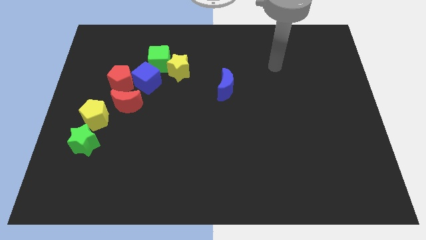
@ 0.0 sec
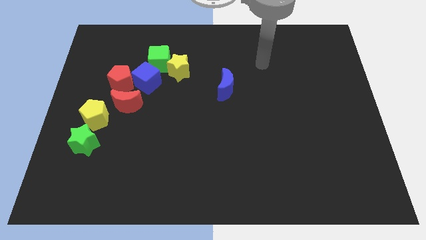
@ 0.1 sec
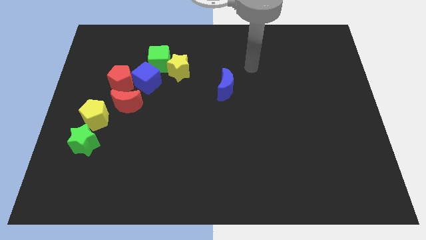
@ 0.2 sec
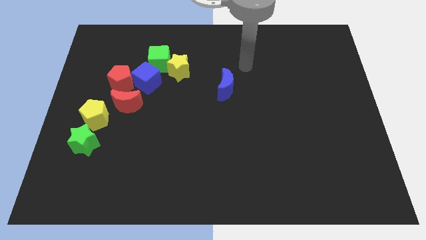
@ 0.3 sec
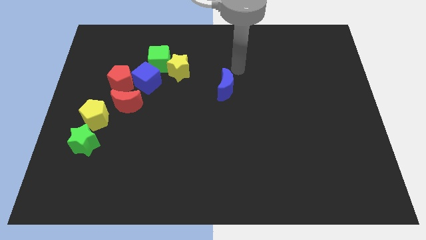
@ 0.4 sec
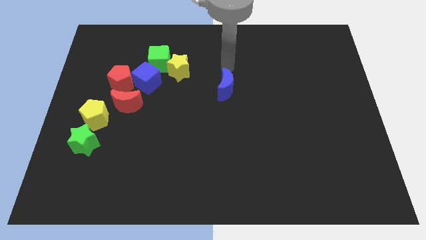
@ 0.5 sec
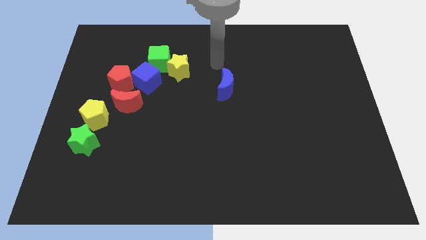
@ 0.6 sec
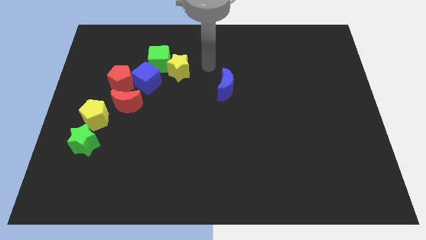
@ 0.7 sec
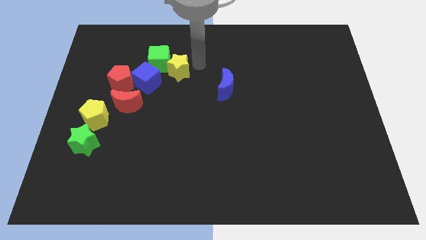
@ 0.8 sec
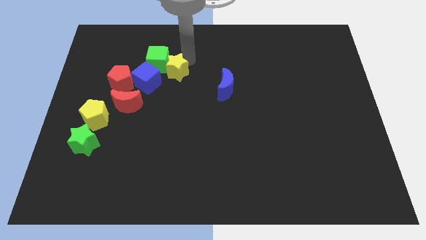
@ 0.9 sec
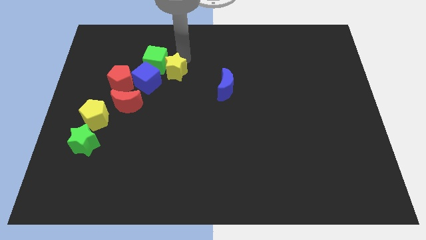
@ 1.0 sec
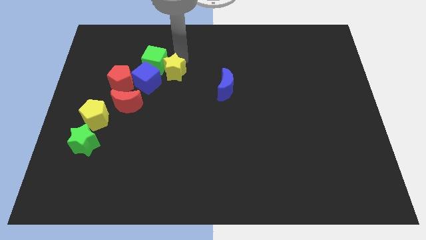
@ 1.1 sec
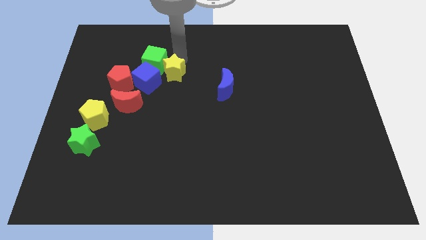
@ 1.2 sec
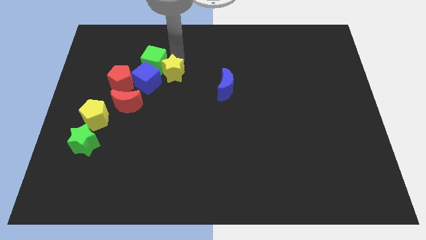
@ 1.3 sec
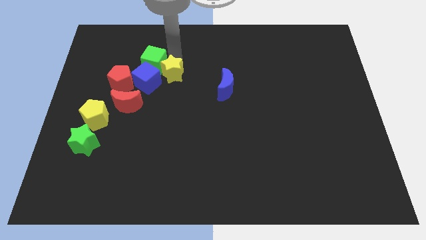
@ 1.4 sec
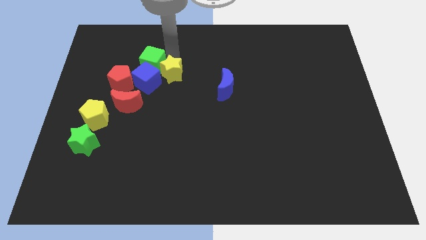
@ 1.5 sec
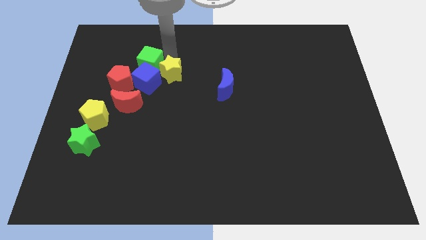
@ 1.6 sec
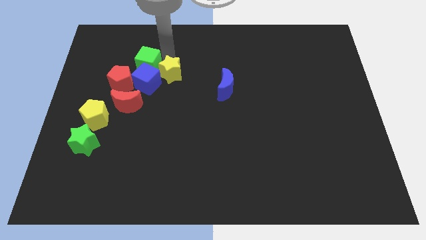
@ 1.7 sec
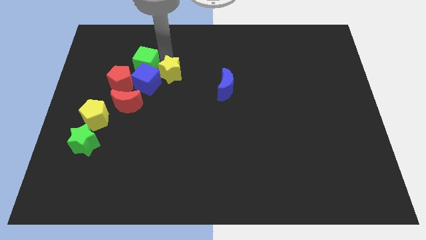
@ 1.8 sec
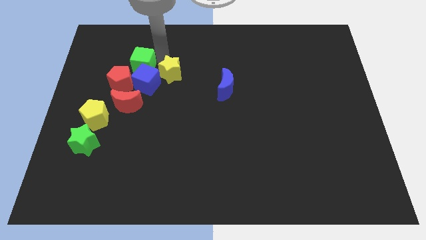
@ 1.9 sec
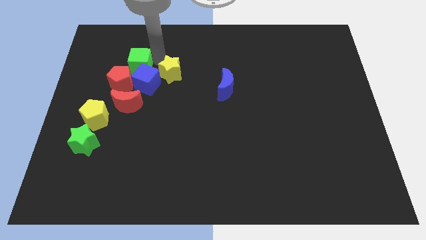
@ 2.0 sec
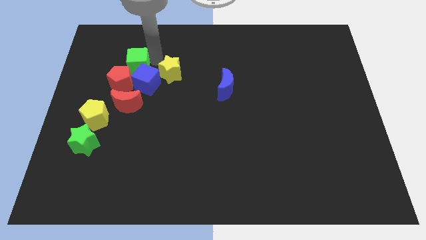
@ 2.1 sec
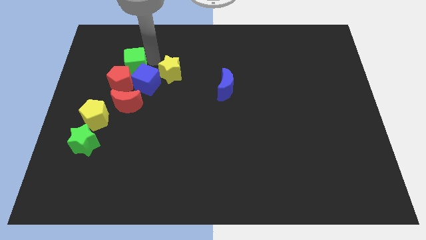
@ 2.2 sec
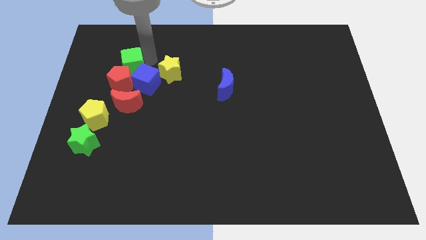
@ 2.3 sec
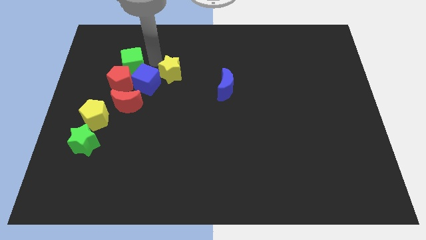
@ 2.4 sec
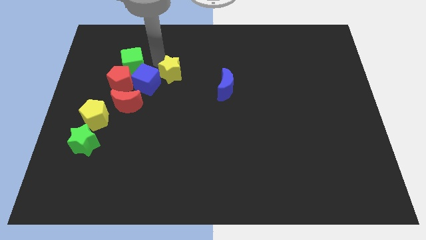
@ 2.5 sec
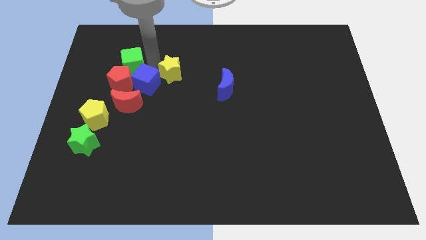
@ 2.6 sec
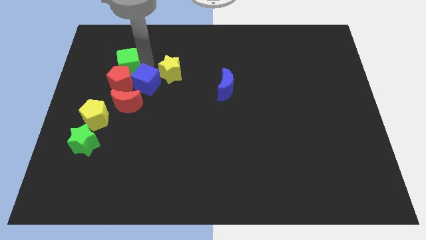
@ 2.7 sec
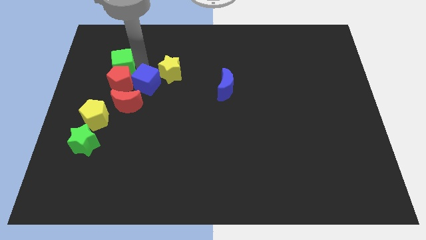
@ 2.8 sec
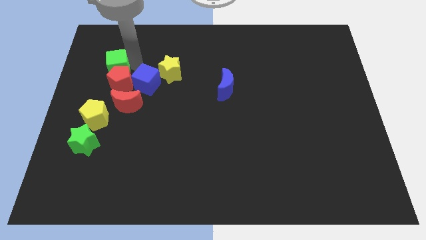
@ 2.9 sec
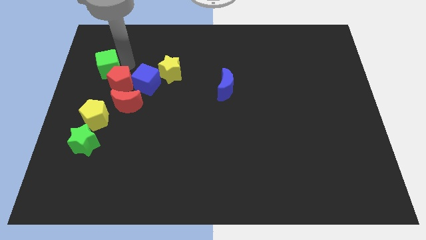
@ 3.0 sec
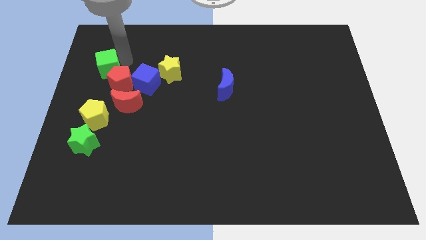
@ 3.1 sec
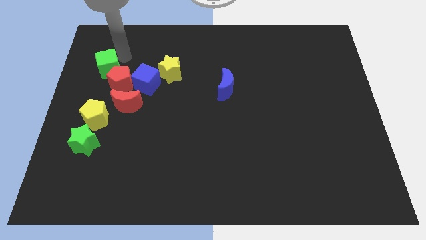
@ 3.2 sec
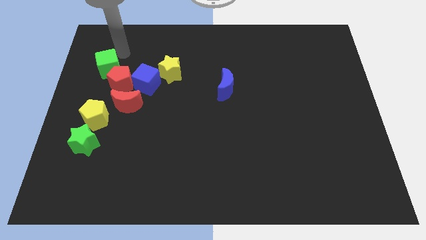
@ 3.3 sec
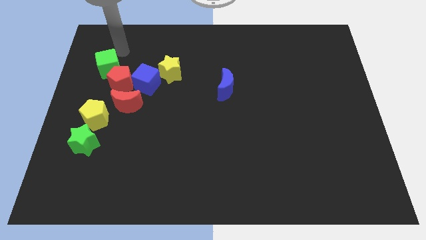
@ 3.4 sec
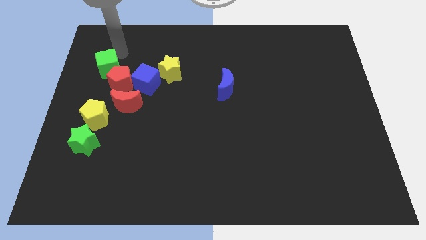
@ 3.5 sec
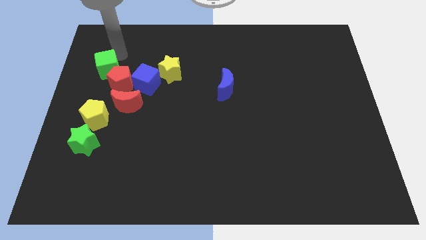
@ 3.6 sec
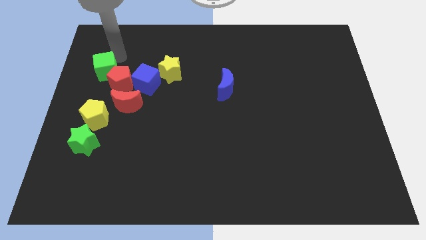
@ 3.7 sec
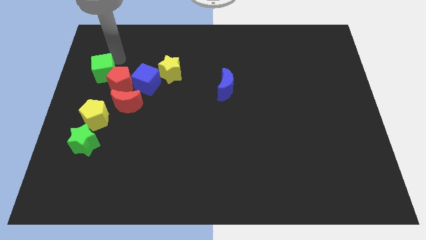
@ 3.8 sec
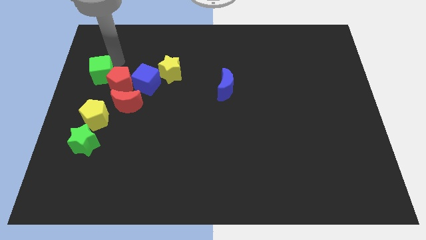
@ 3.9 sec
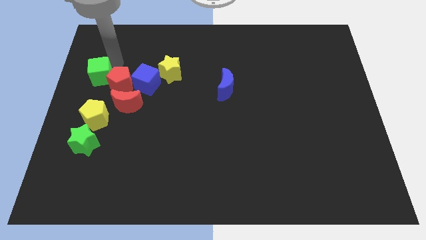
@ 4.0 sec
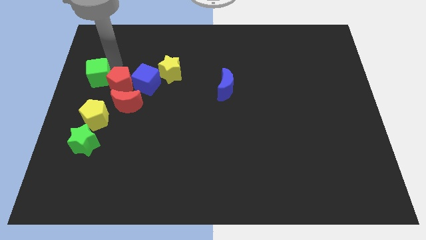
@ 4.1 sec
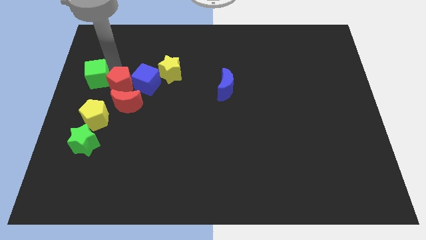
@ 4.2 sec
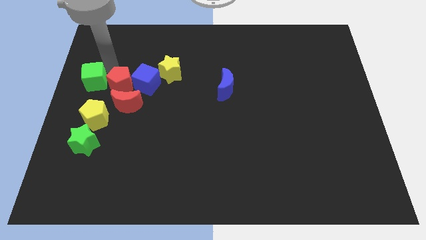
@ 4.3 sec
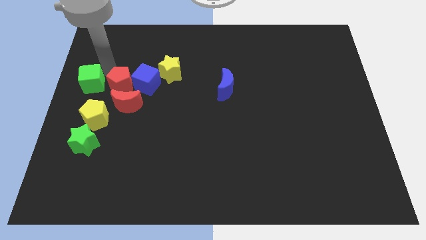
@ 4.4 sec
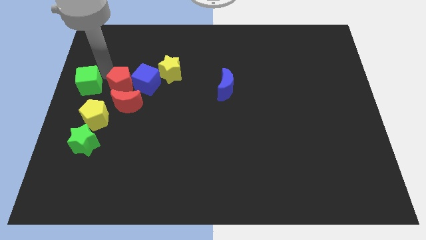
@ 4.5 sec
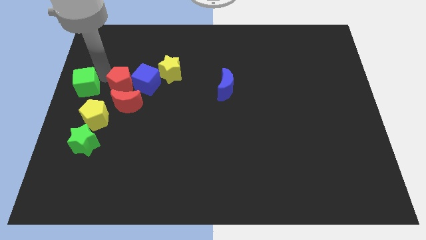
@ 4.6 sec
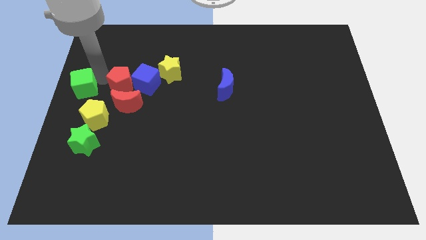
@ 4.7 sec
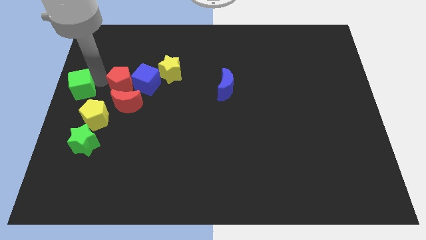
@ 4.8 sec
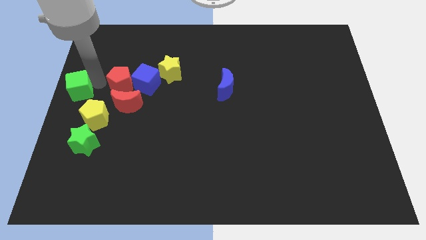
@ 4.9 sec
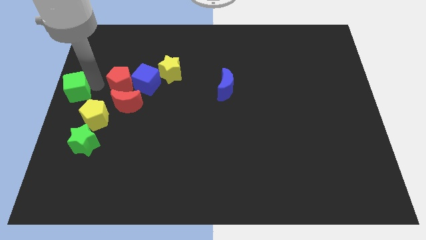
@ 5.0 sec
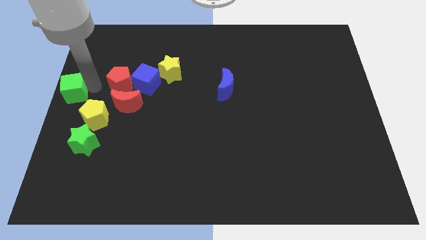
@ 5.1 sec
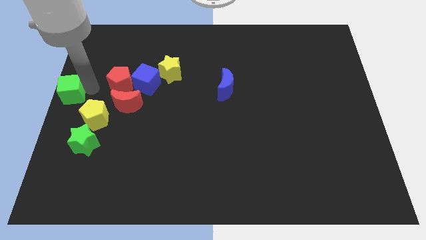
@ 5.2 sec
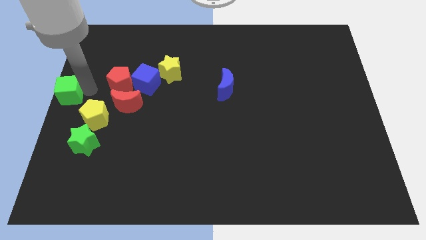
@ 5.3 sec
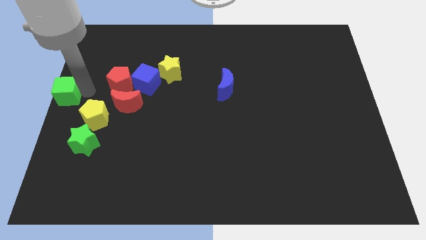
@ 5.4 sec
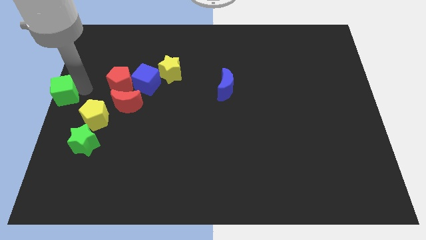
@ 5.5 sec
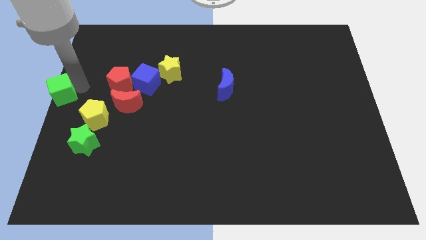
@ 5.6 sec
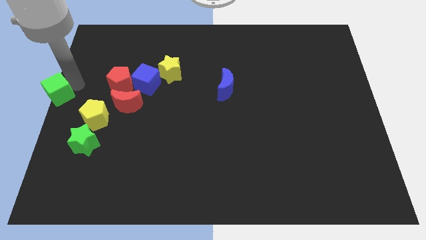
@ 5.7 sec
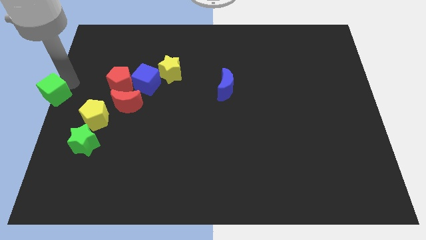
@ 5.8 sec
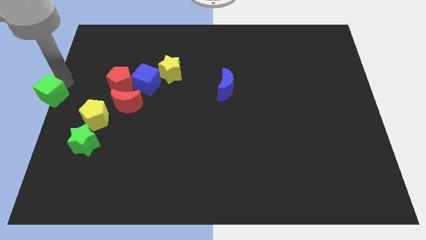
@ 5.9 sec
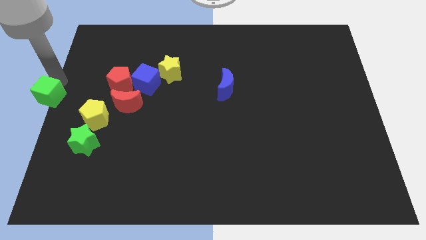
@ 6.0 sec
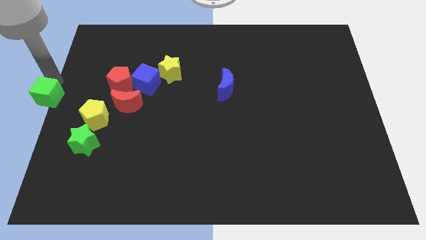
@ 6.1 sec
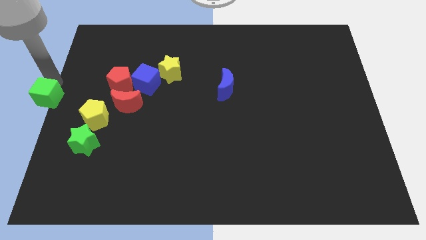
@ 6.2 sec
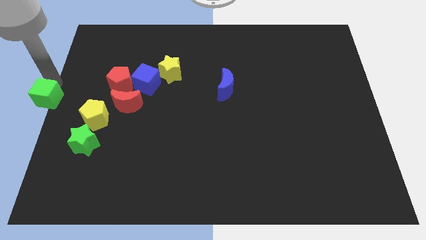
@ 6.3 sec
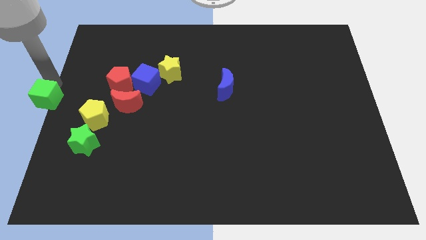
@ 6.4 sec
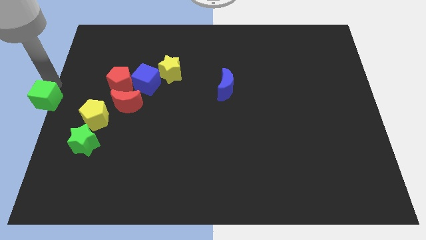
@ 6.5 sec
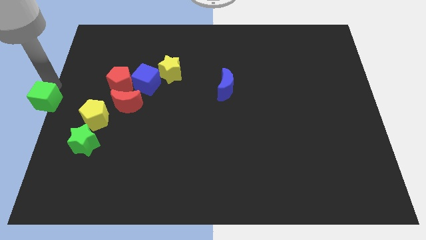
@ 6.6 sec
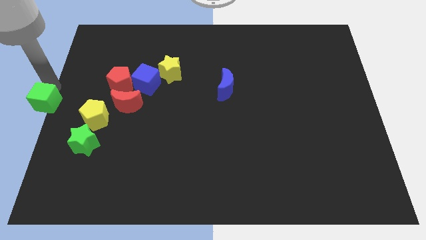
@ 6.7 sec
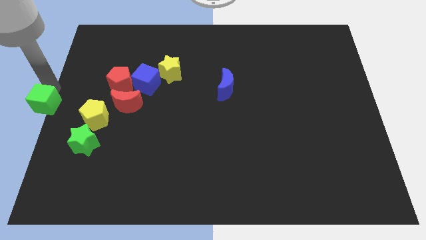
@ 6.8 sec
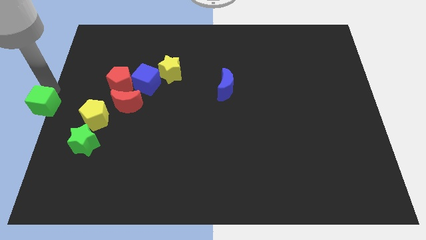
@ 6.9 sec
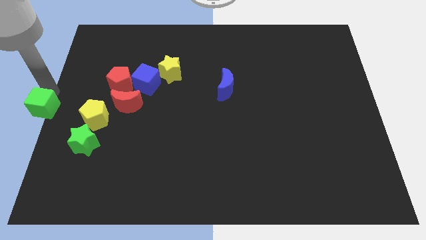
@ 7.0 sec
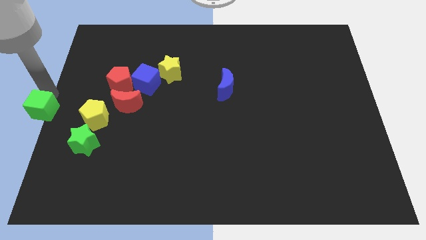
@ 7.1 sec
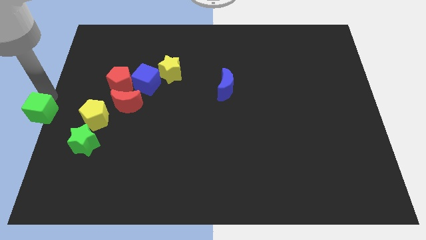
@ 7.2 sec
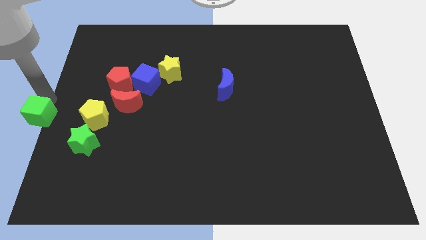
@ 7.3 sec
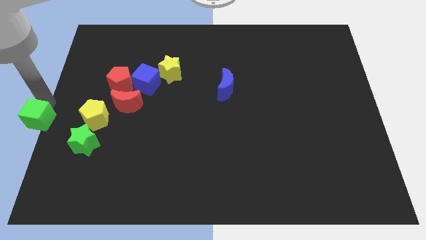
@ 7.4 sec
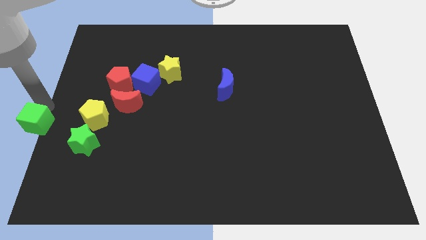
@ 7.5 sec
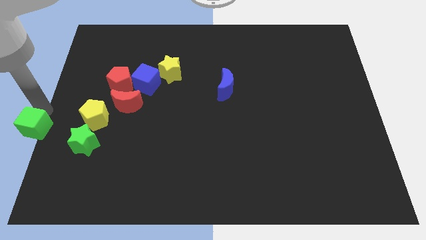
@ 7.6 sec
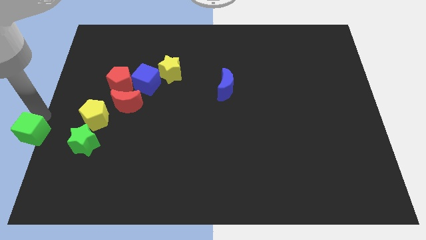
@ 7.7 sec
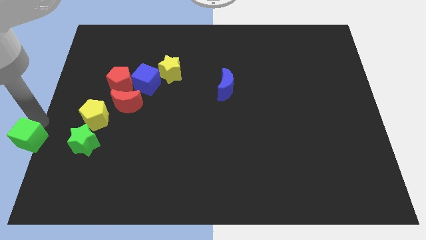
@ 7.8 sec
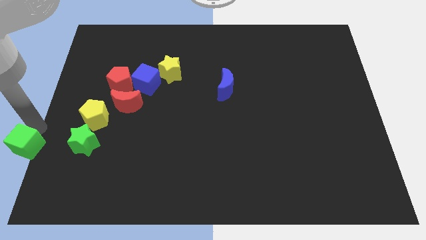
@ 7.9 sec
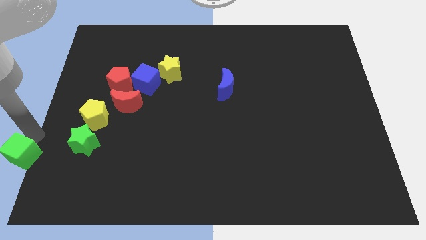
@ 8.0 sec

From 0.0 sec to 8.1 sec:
slide the green cube to the bottom left
